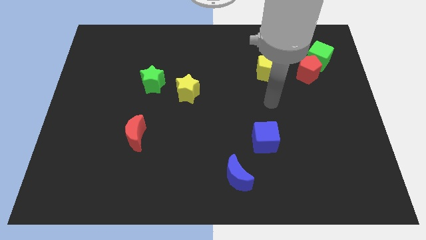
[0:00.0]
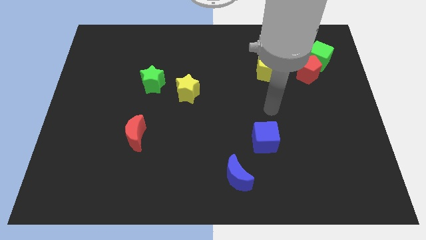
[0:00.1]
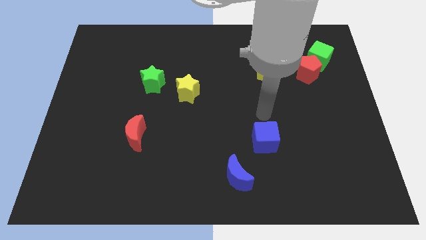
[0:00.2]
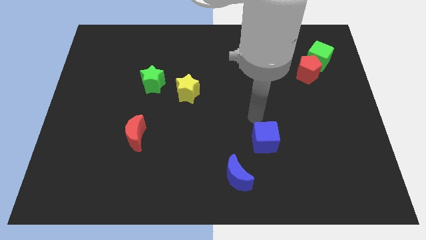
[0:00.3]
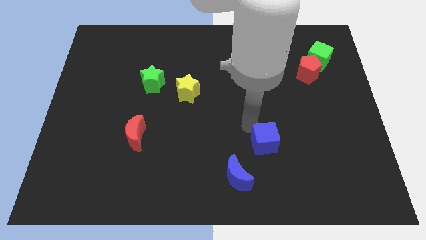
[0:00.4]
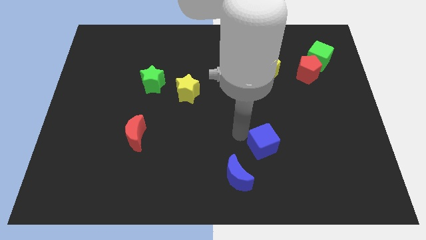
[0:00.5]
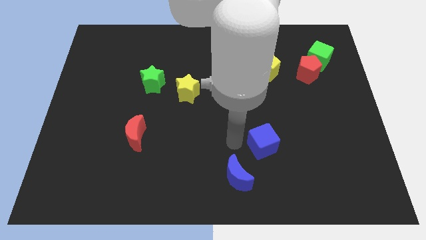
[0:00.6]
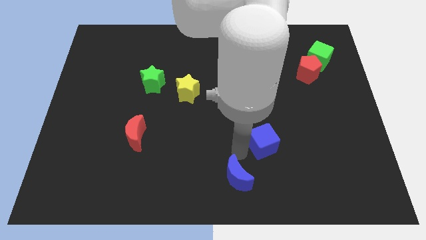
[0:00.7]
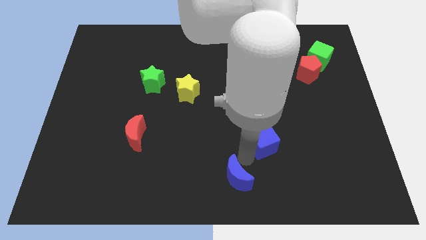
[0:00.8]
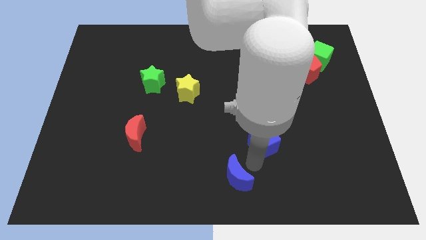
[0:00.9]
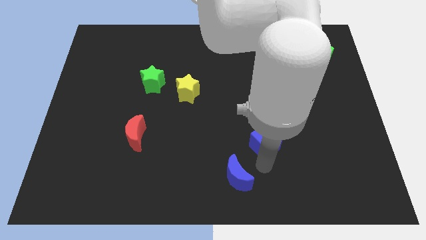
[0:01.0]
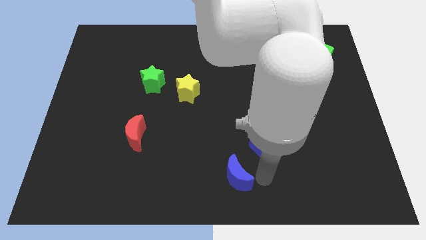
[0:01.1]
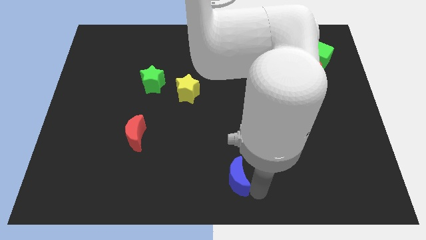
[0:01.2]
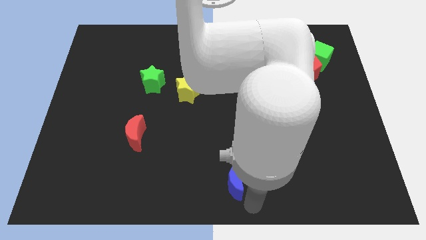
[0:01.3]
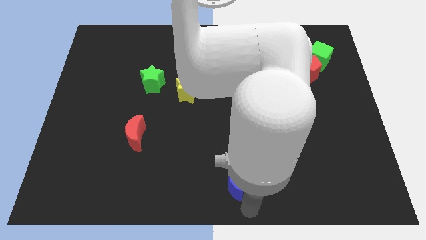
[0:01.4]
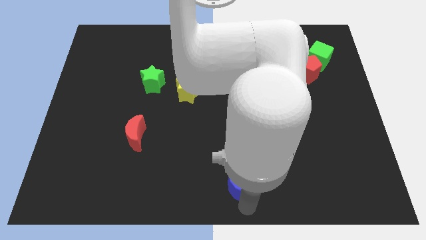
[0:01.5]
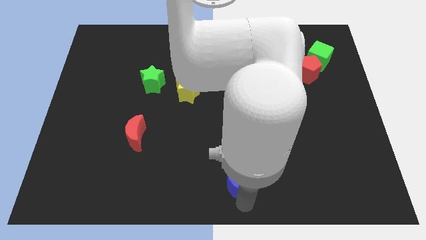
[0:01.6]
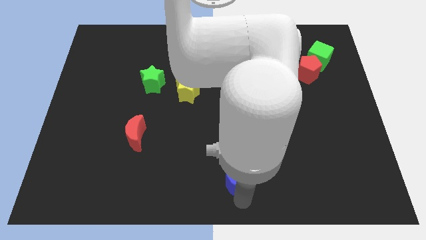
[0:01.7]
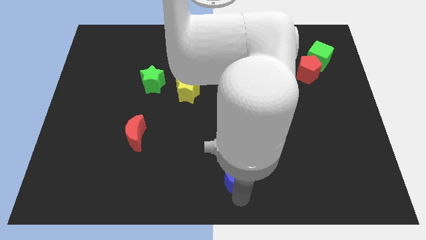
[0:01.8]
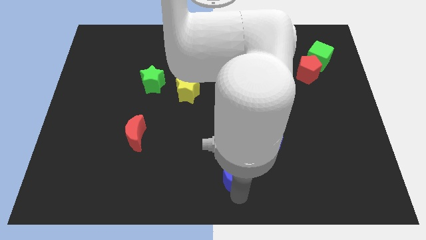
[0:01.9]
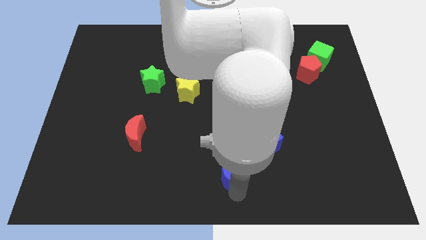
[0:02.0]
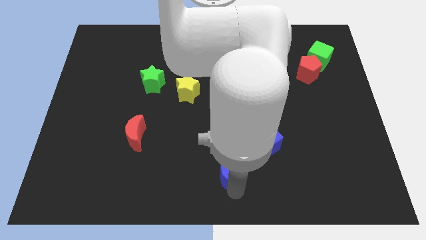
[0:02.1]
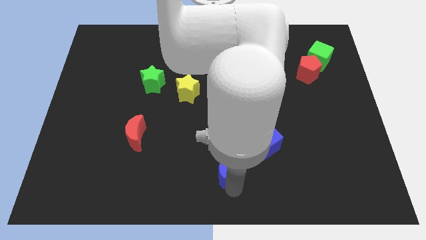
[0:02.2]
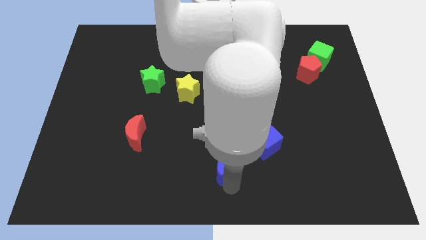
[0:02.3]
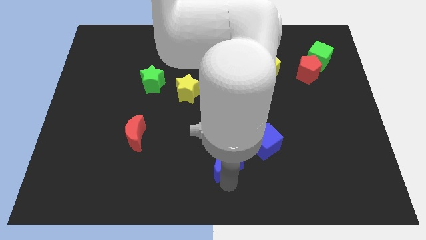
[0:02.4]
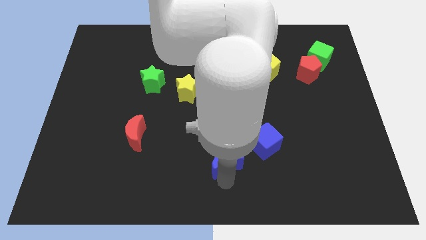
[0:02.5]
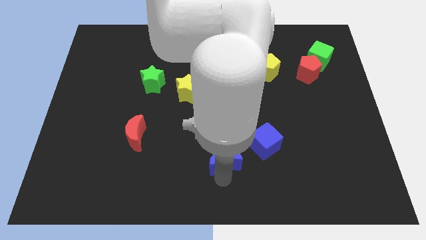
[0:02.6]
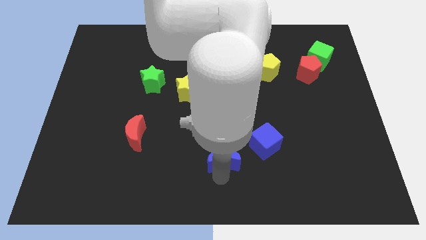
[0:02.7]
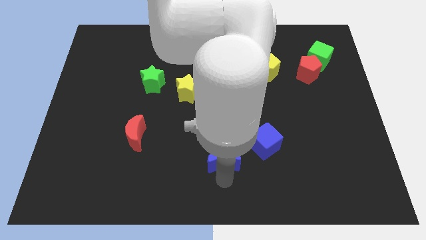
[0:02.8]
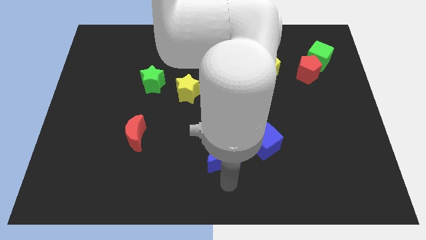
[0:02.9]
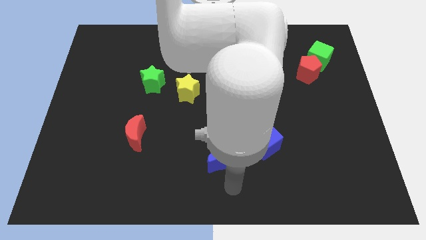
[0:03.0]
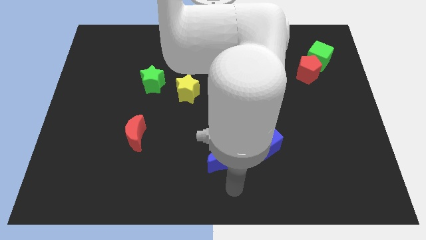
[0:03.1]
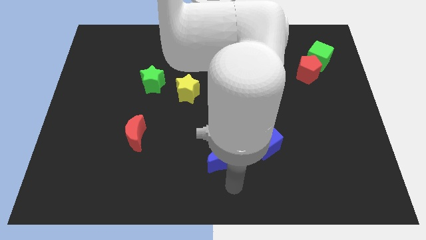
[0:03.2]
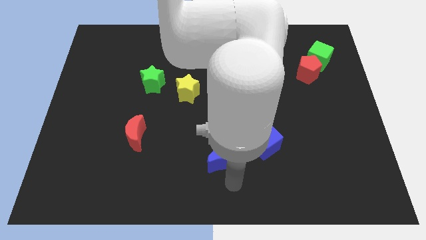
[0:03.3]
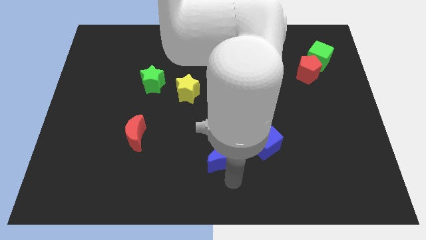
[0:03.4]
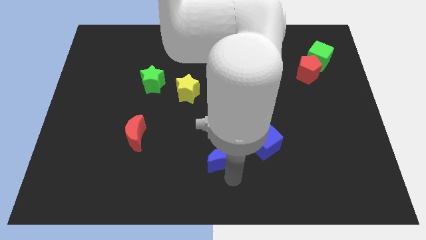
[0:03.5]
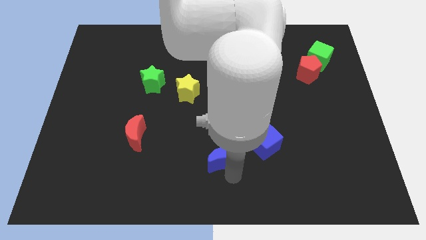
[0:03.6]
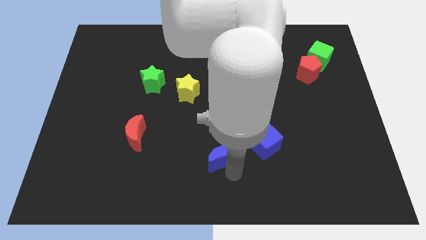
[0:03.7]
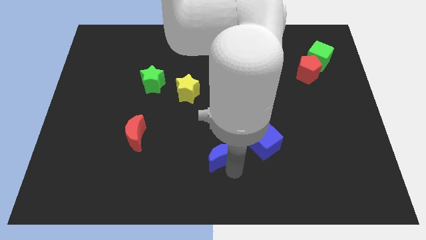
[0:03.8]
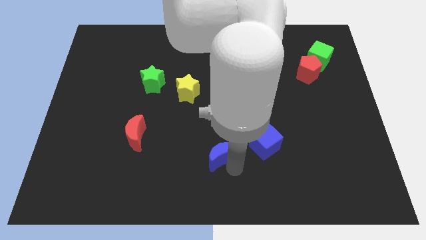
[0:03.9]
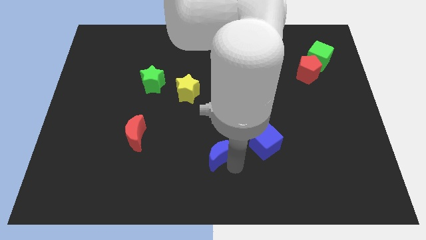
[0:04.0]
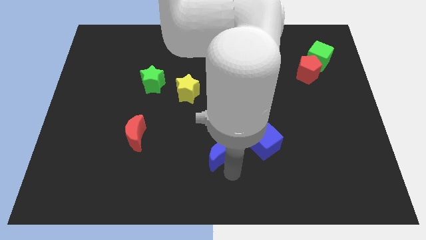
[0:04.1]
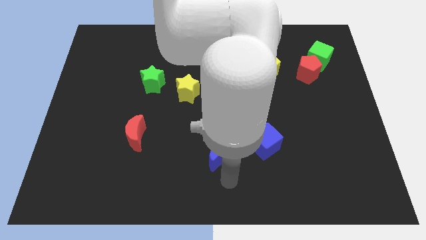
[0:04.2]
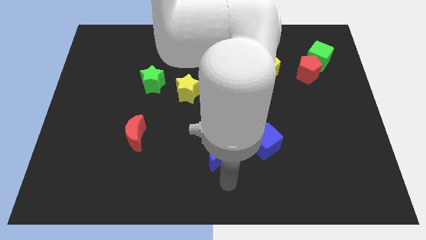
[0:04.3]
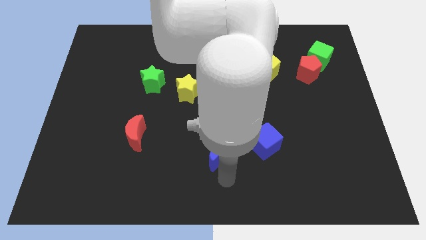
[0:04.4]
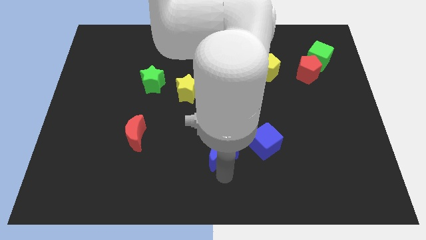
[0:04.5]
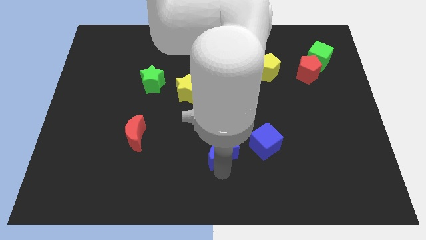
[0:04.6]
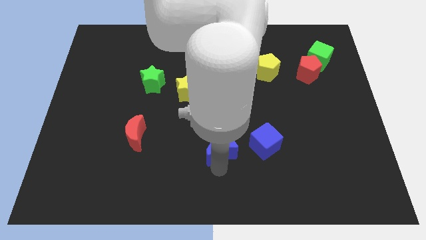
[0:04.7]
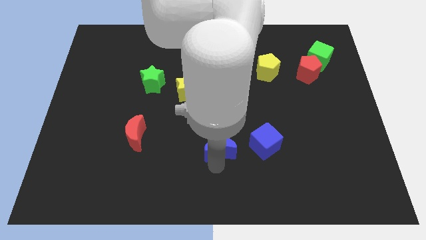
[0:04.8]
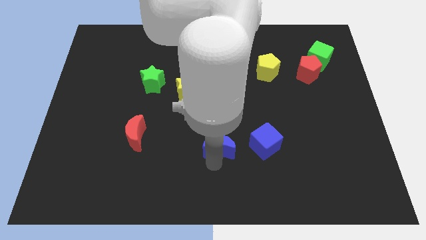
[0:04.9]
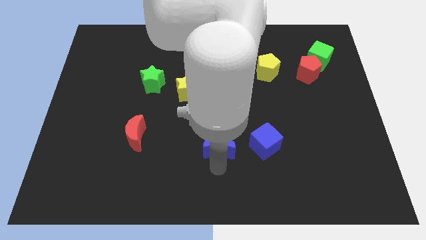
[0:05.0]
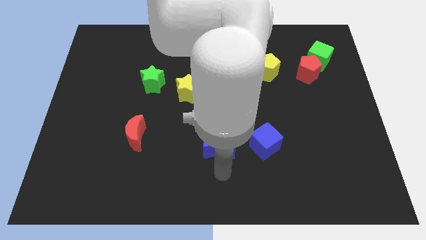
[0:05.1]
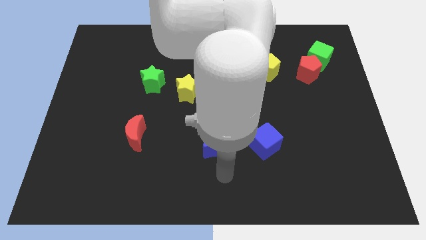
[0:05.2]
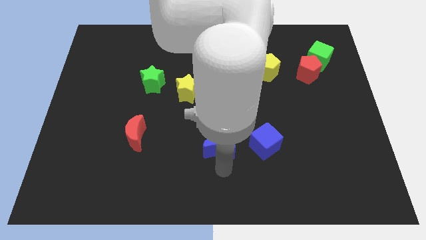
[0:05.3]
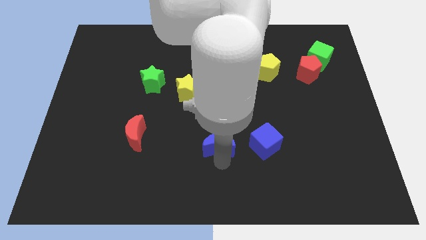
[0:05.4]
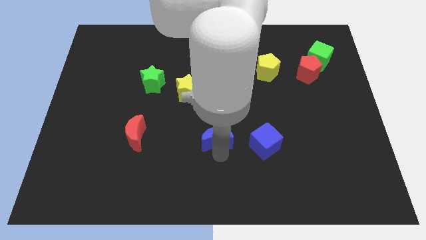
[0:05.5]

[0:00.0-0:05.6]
move the blue moon to the center of the board

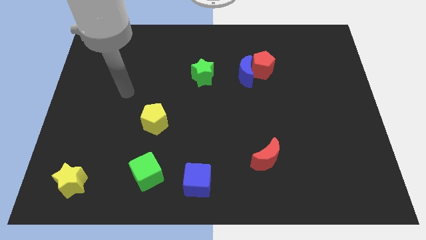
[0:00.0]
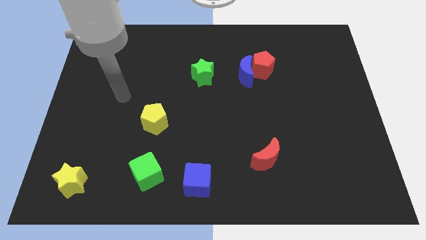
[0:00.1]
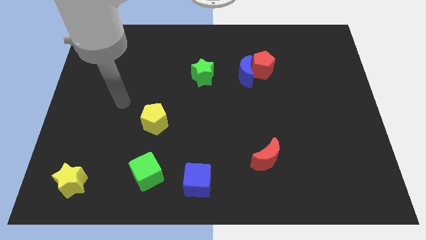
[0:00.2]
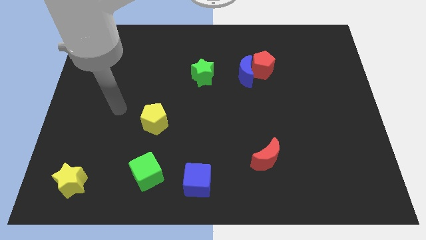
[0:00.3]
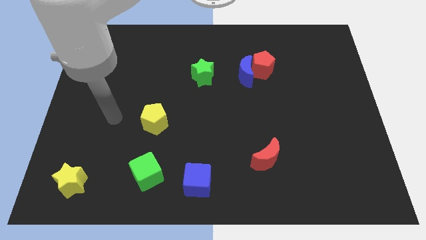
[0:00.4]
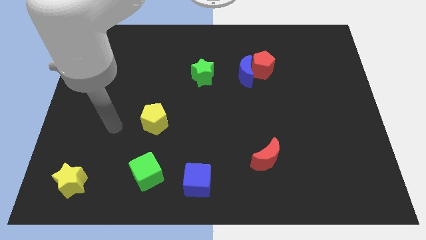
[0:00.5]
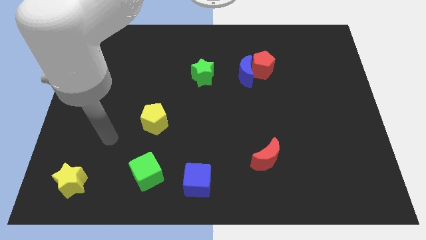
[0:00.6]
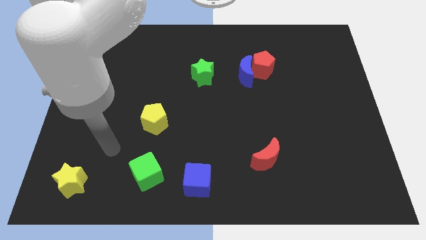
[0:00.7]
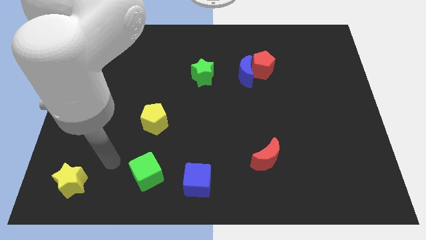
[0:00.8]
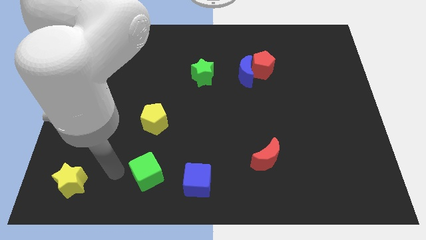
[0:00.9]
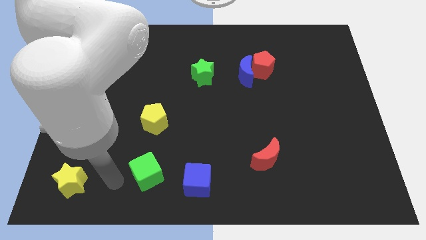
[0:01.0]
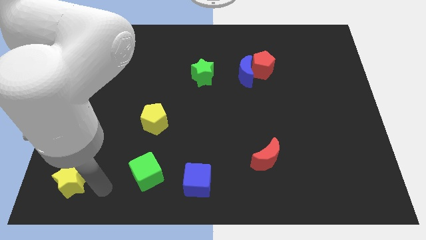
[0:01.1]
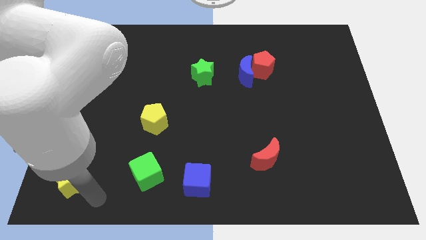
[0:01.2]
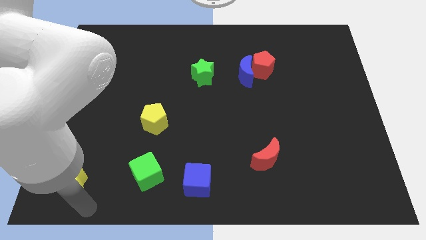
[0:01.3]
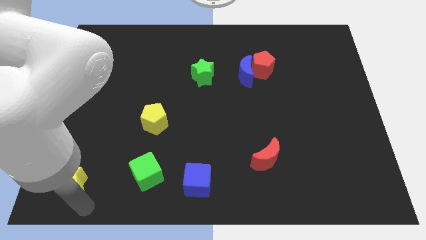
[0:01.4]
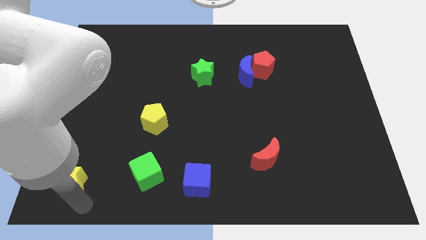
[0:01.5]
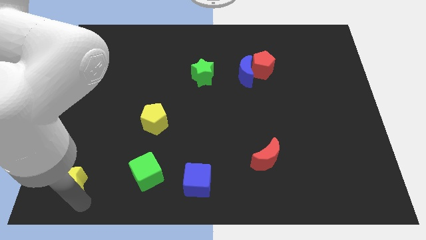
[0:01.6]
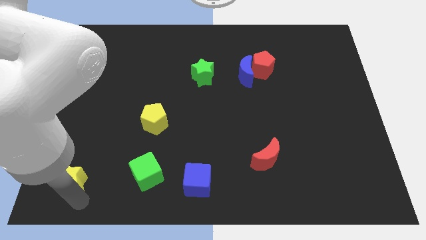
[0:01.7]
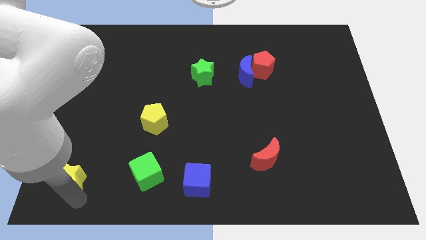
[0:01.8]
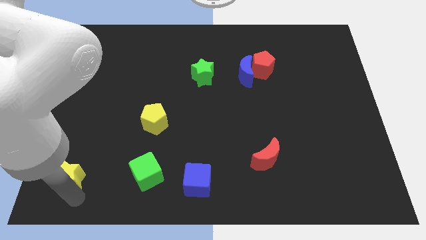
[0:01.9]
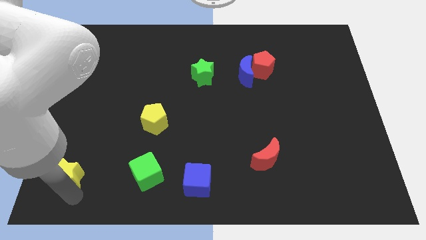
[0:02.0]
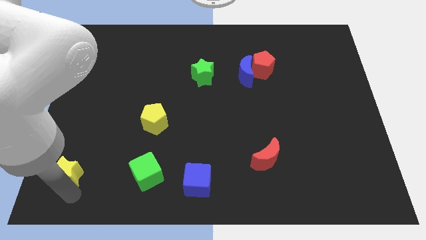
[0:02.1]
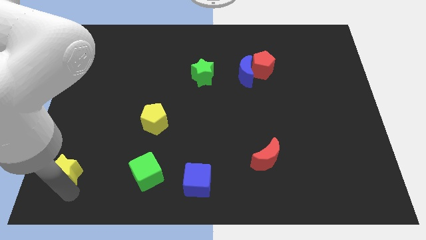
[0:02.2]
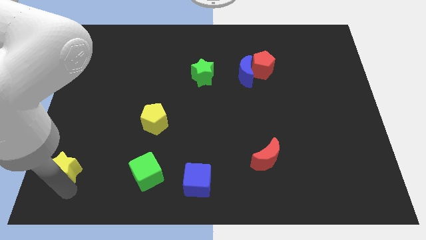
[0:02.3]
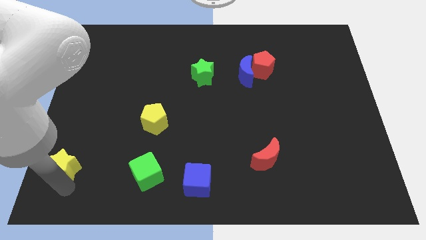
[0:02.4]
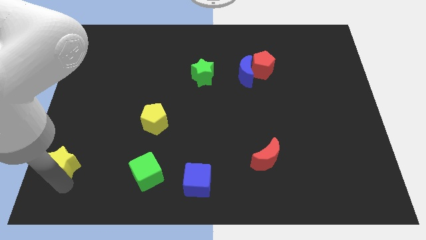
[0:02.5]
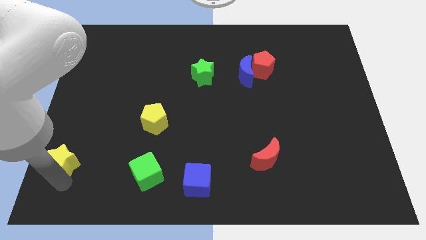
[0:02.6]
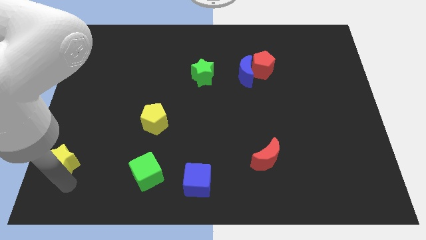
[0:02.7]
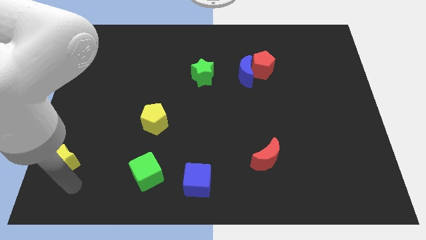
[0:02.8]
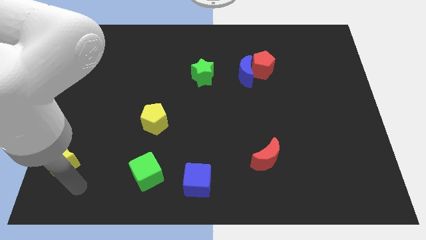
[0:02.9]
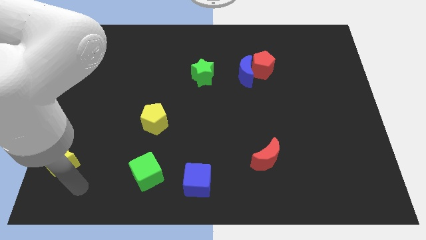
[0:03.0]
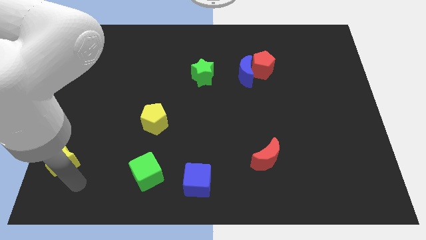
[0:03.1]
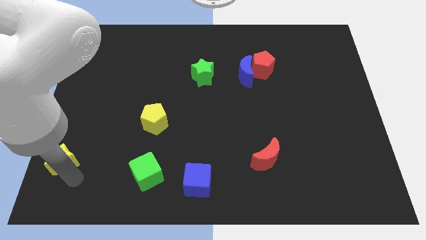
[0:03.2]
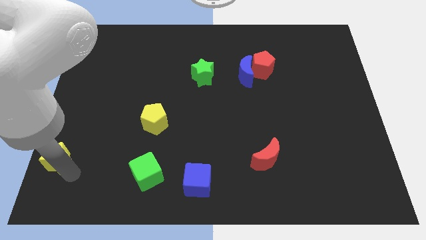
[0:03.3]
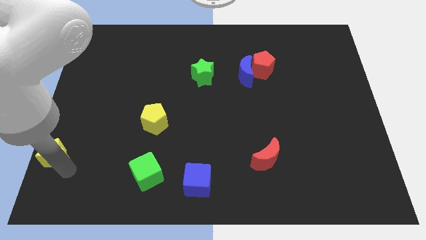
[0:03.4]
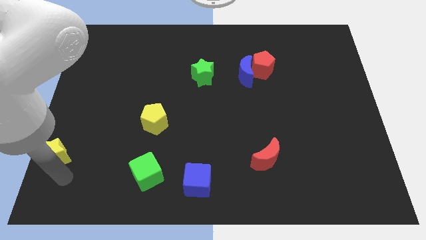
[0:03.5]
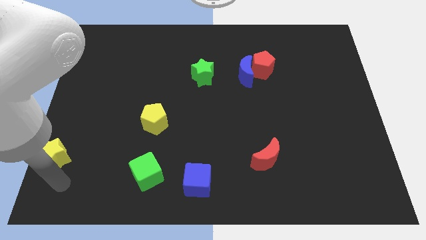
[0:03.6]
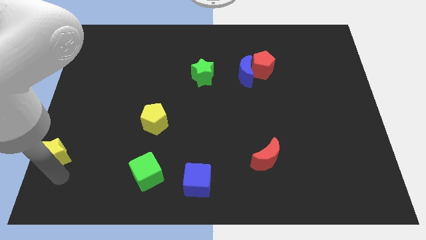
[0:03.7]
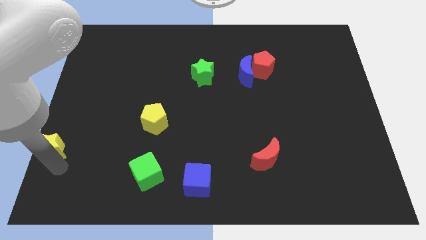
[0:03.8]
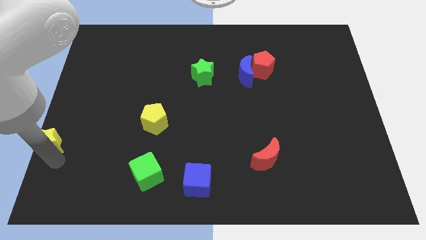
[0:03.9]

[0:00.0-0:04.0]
move the yellow star to the center left
